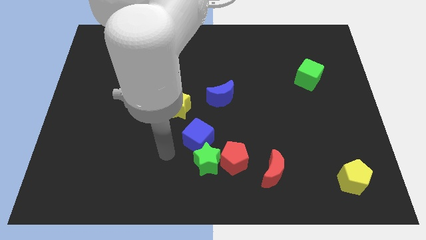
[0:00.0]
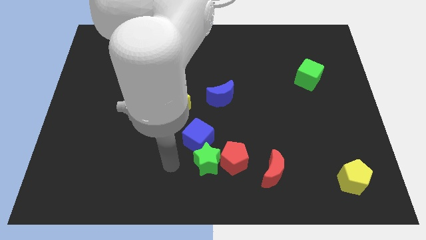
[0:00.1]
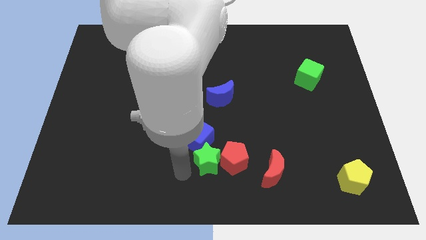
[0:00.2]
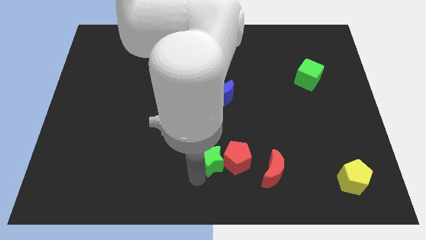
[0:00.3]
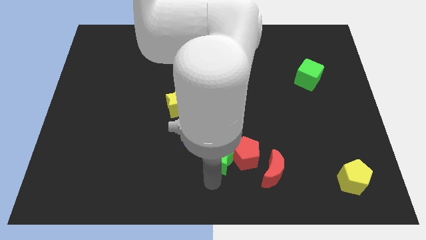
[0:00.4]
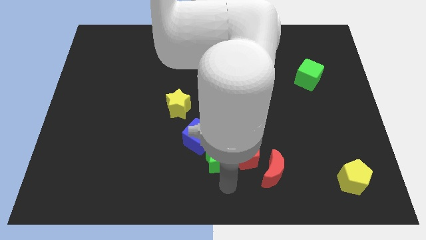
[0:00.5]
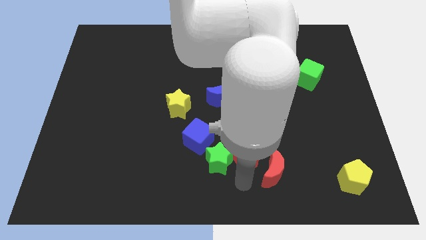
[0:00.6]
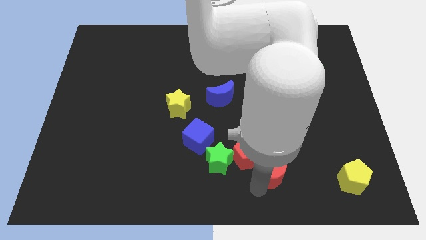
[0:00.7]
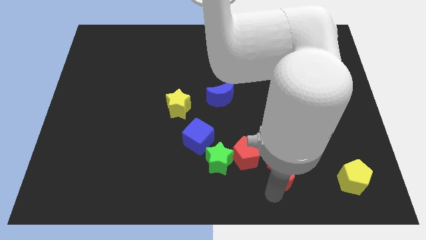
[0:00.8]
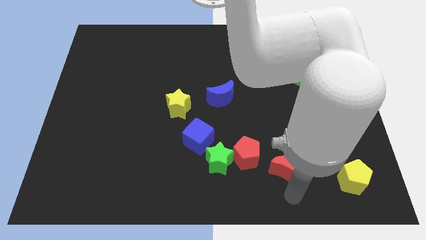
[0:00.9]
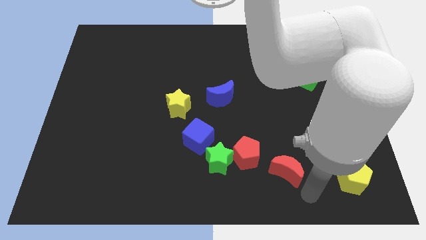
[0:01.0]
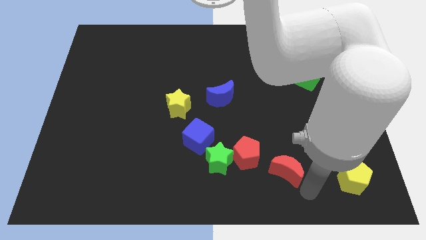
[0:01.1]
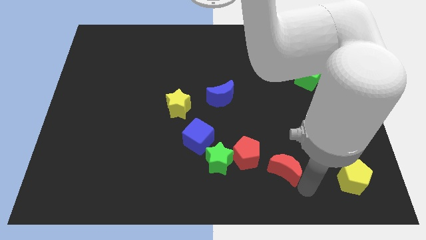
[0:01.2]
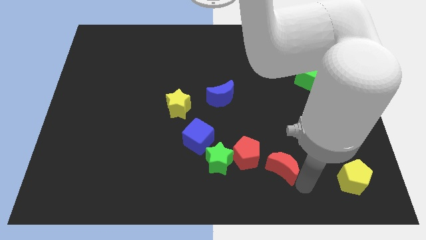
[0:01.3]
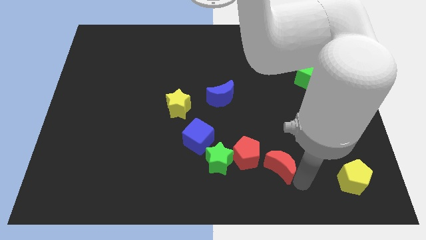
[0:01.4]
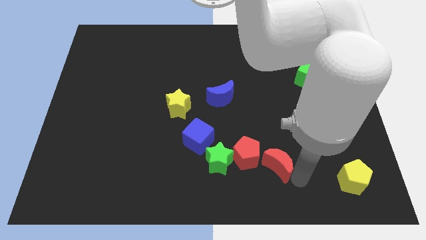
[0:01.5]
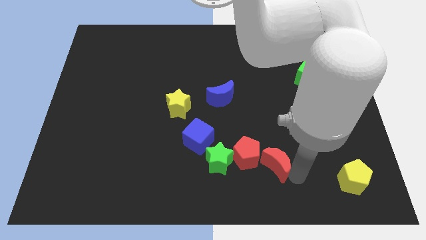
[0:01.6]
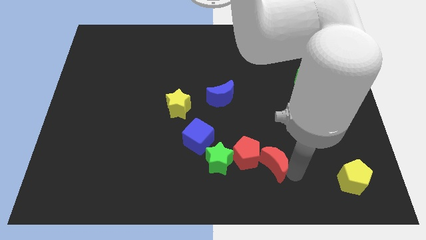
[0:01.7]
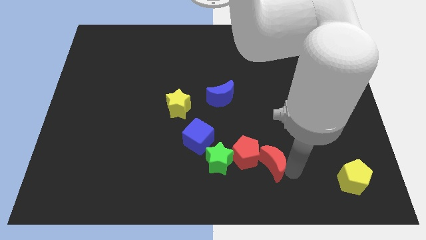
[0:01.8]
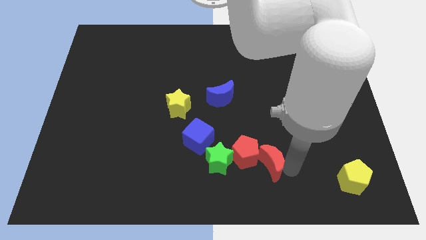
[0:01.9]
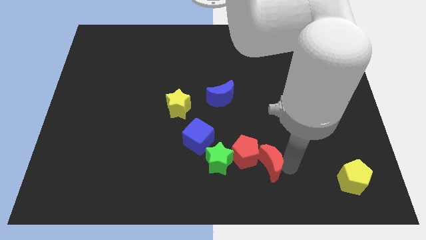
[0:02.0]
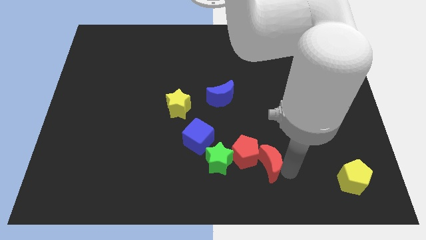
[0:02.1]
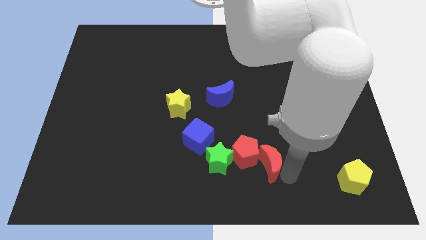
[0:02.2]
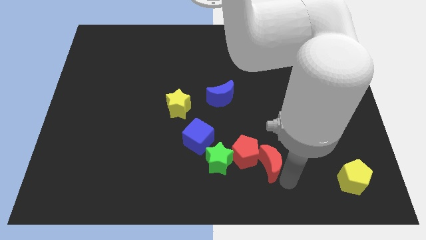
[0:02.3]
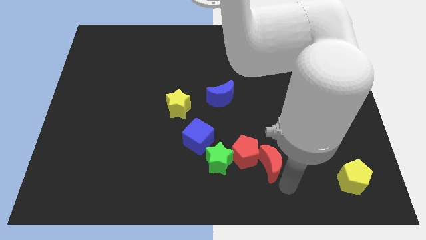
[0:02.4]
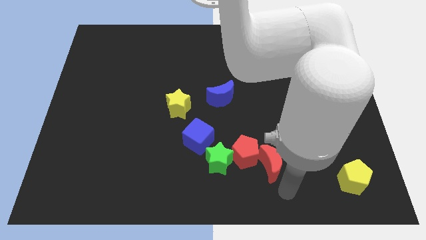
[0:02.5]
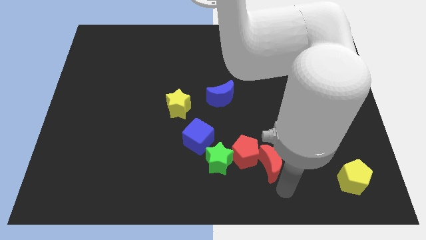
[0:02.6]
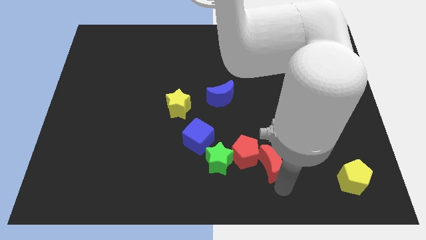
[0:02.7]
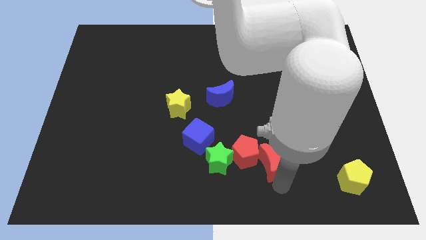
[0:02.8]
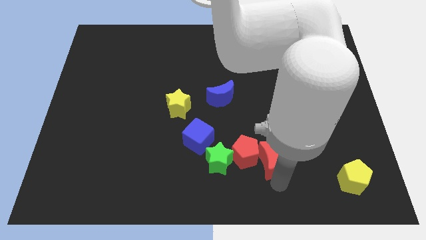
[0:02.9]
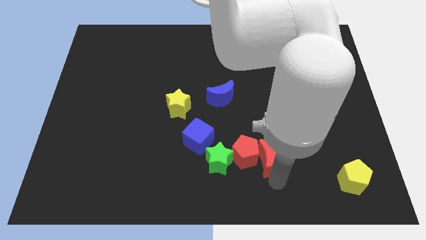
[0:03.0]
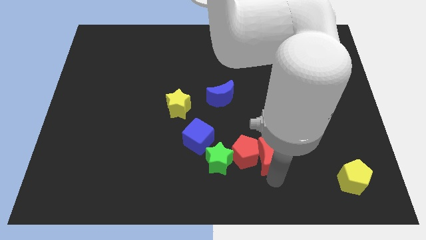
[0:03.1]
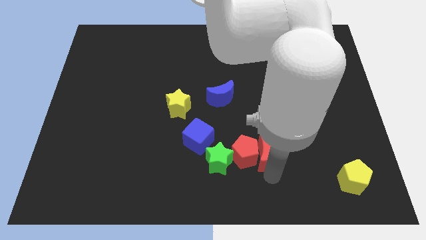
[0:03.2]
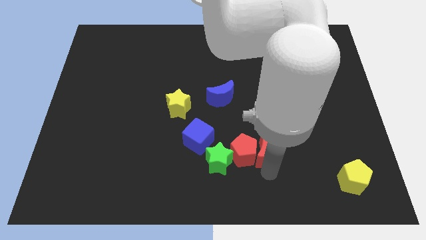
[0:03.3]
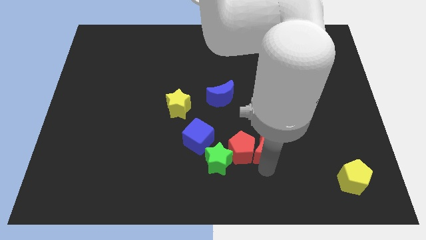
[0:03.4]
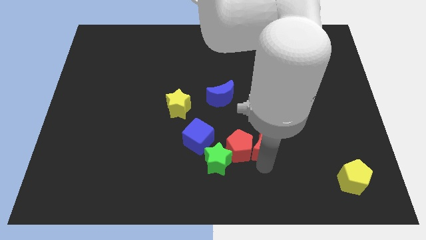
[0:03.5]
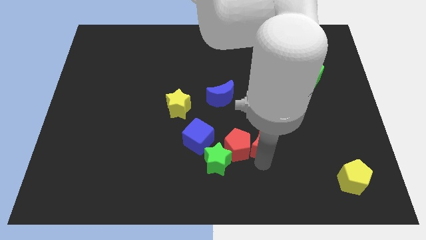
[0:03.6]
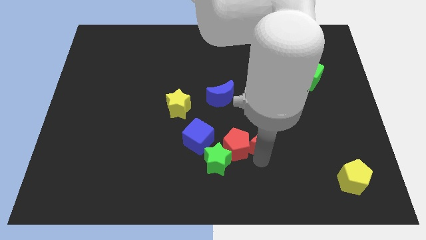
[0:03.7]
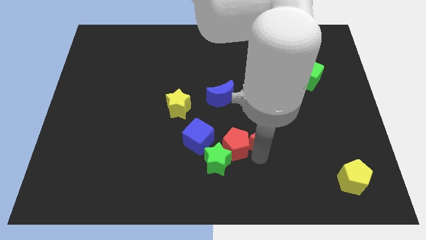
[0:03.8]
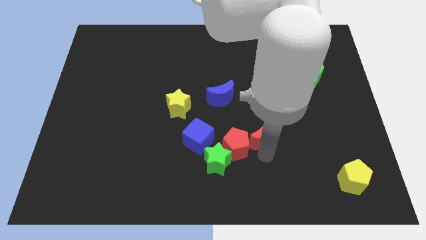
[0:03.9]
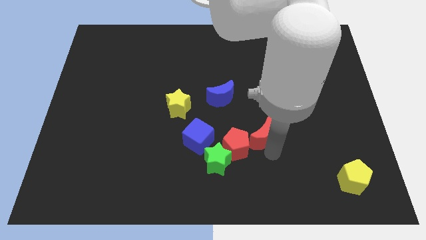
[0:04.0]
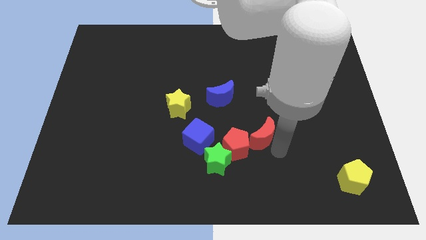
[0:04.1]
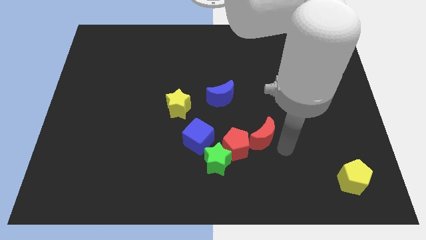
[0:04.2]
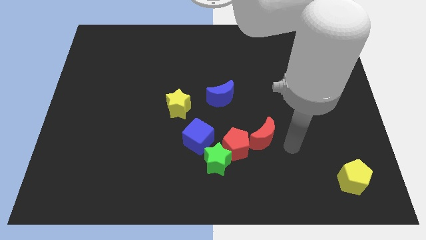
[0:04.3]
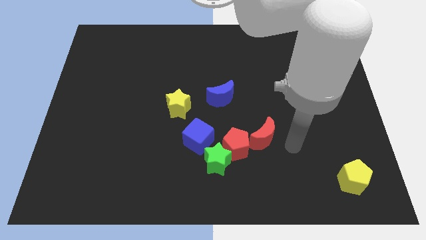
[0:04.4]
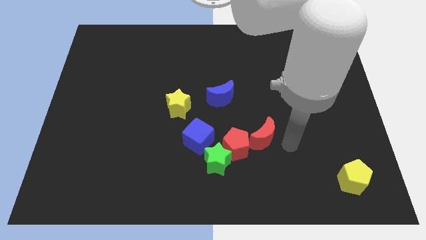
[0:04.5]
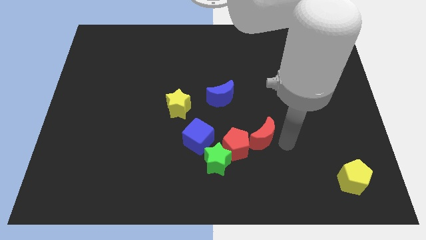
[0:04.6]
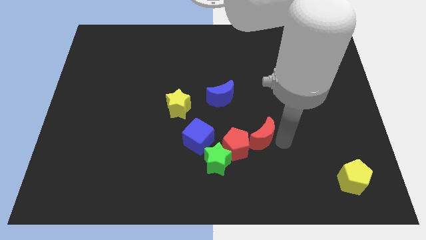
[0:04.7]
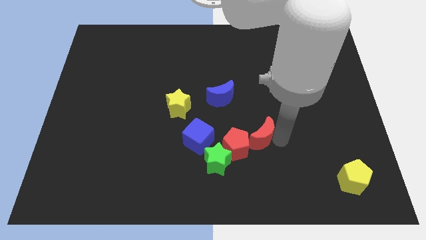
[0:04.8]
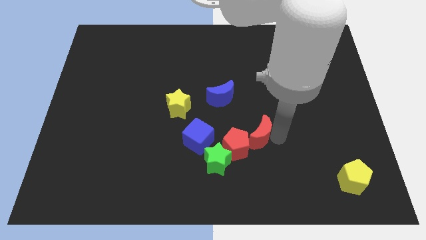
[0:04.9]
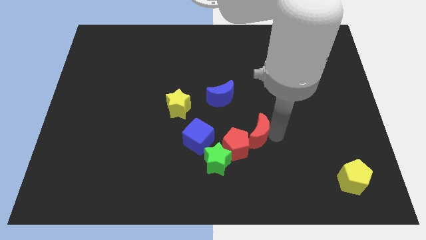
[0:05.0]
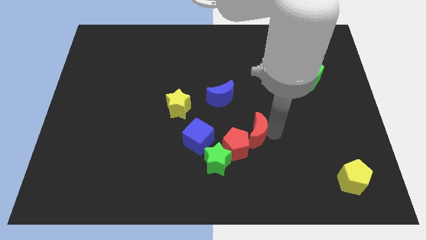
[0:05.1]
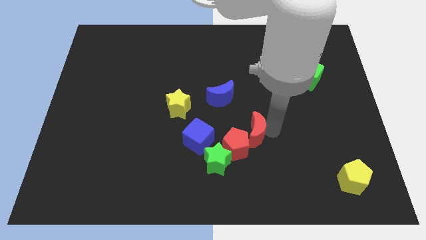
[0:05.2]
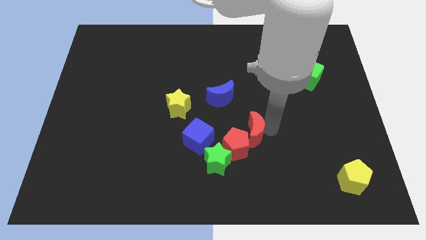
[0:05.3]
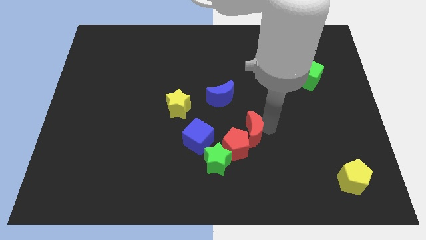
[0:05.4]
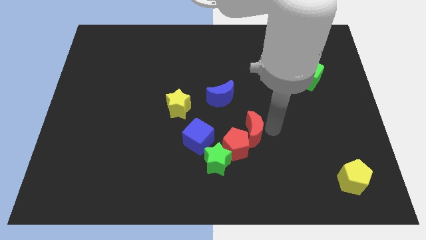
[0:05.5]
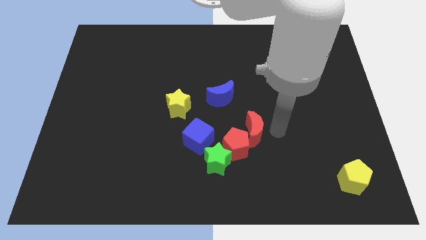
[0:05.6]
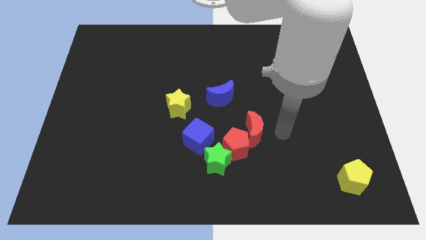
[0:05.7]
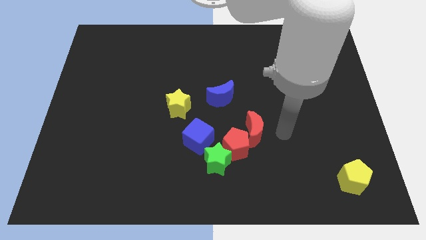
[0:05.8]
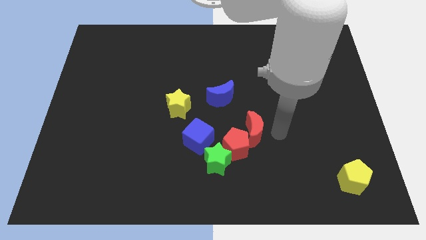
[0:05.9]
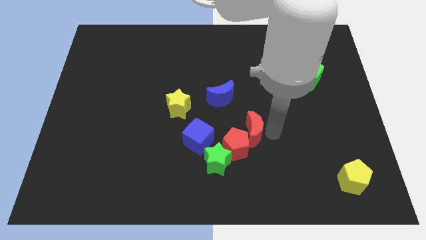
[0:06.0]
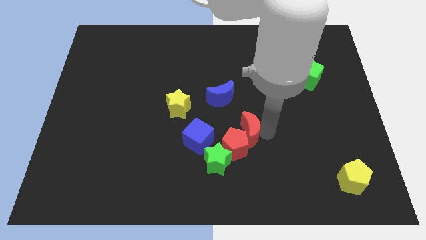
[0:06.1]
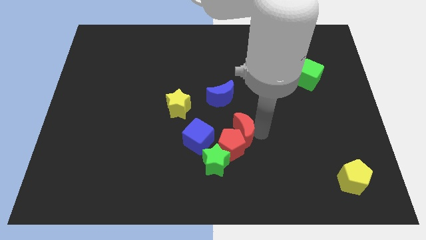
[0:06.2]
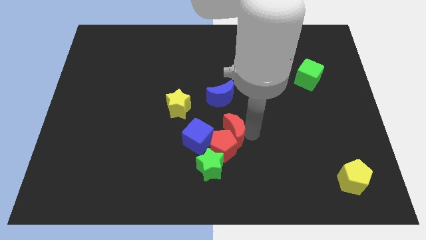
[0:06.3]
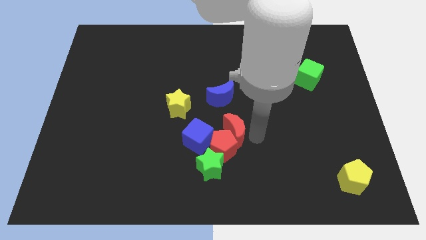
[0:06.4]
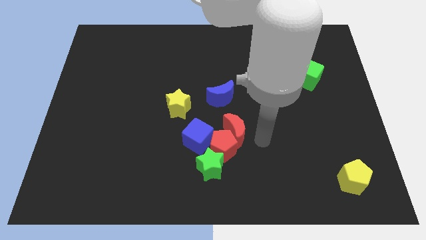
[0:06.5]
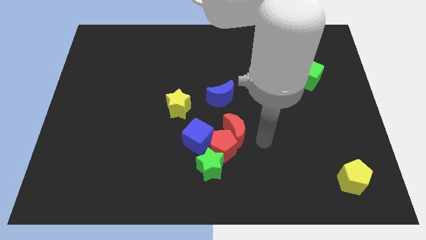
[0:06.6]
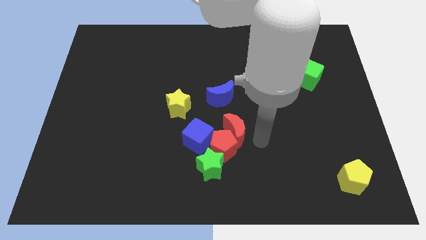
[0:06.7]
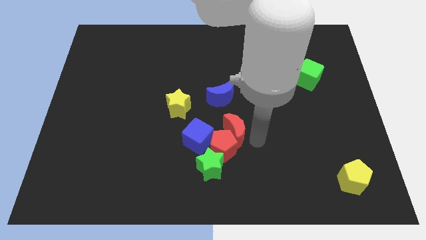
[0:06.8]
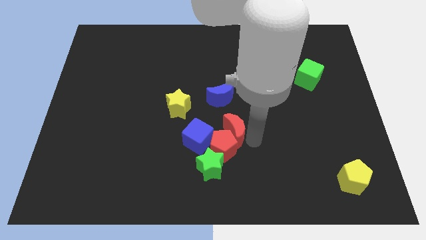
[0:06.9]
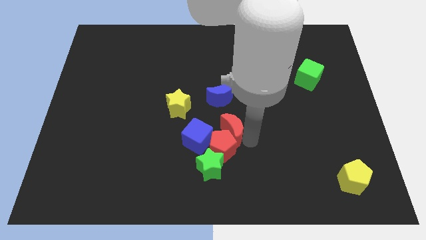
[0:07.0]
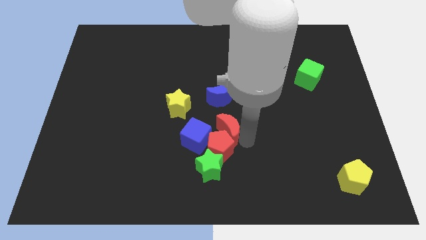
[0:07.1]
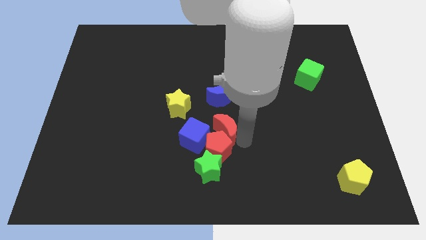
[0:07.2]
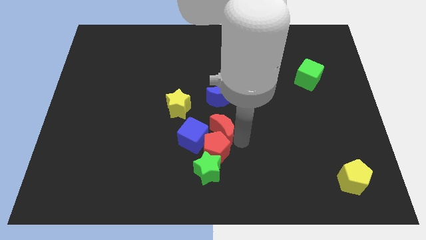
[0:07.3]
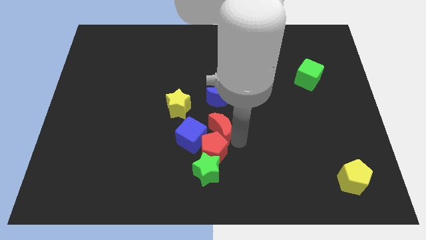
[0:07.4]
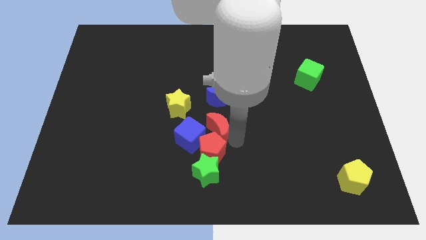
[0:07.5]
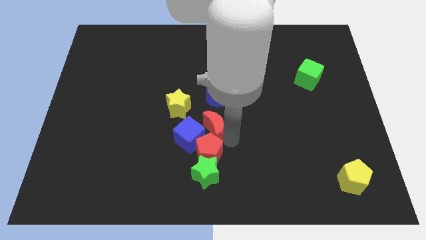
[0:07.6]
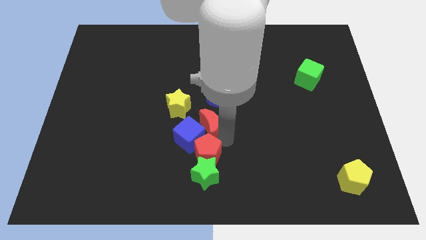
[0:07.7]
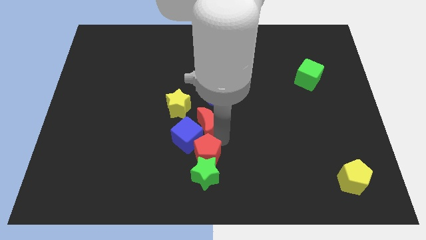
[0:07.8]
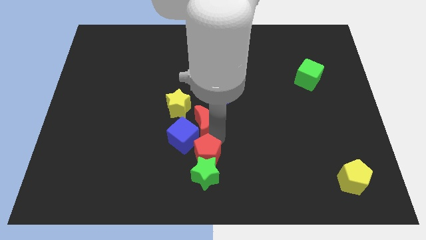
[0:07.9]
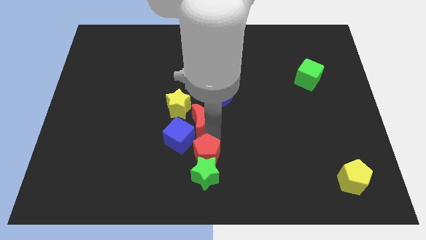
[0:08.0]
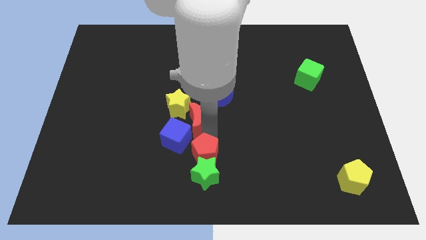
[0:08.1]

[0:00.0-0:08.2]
slide the red moon up and left diagonally
